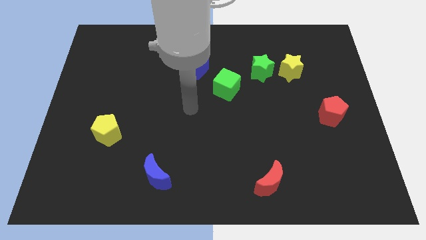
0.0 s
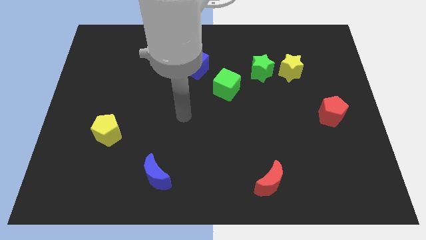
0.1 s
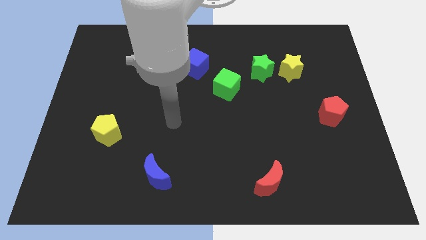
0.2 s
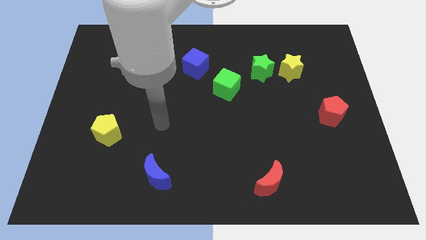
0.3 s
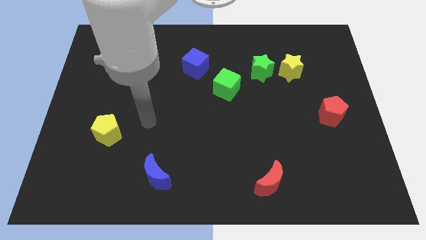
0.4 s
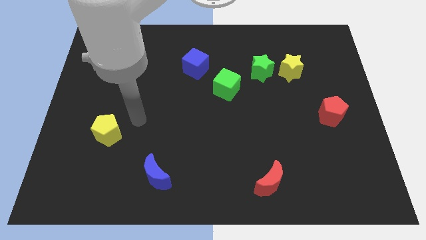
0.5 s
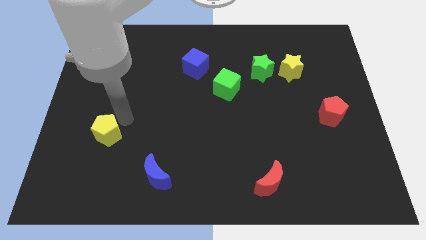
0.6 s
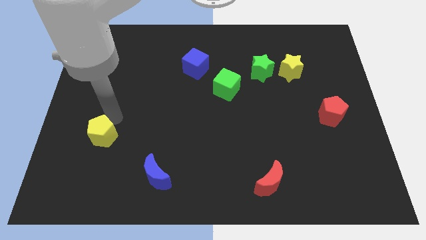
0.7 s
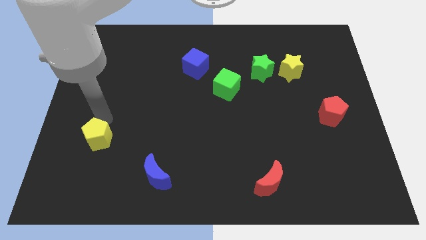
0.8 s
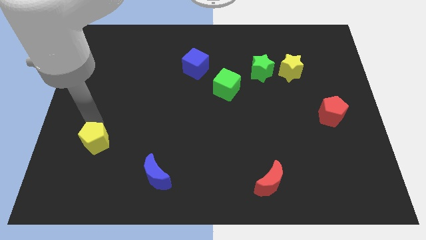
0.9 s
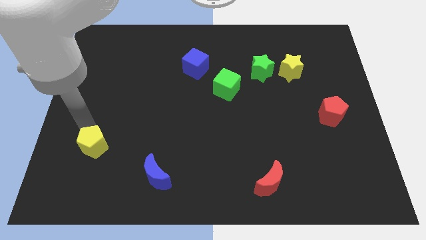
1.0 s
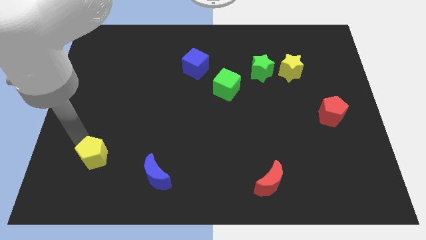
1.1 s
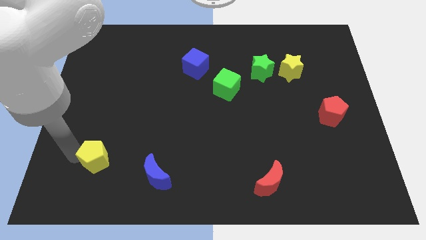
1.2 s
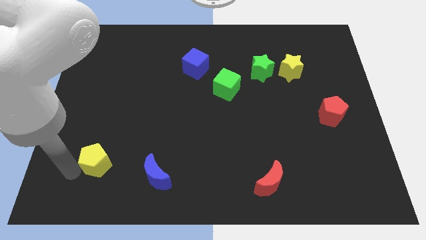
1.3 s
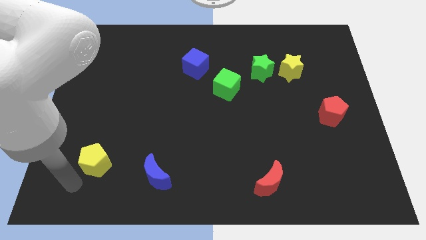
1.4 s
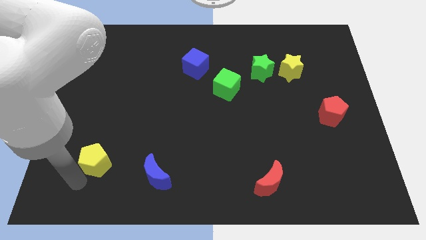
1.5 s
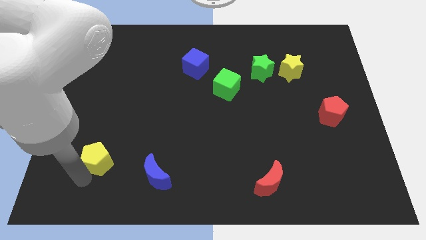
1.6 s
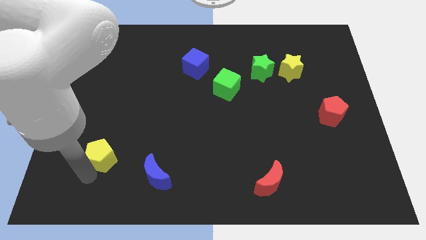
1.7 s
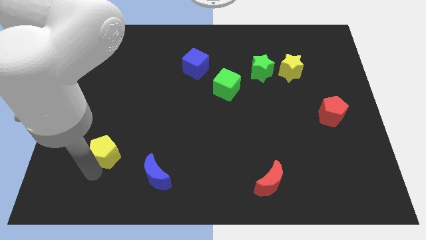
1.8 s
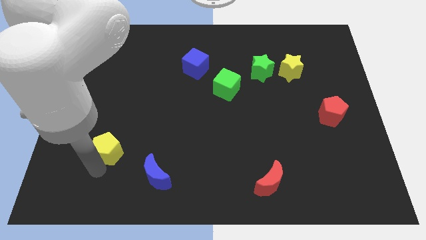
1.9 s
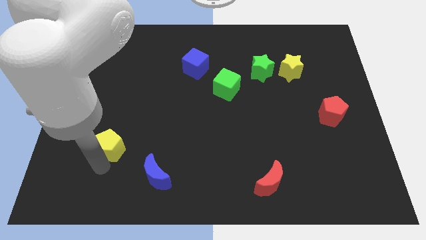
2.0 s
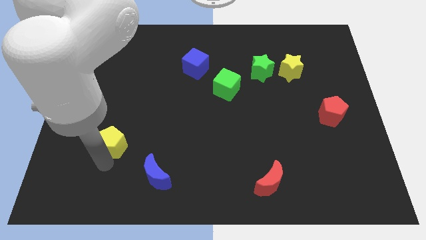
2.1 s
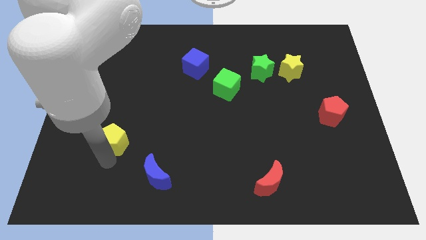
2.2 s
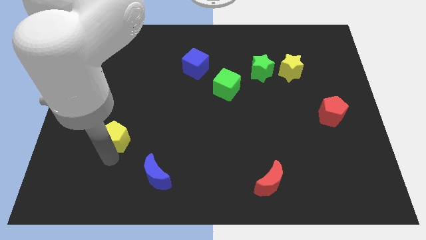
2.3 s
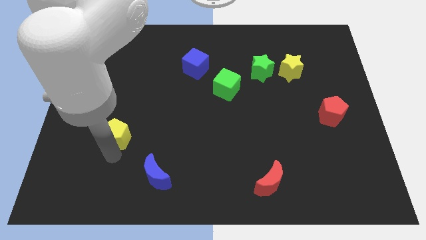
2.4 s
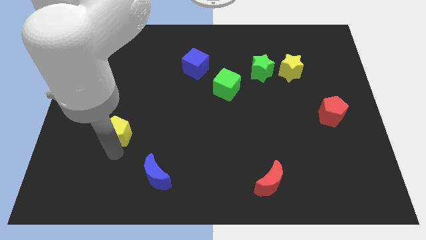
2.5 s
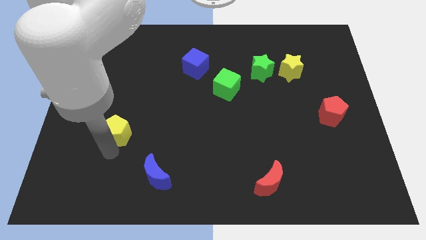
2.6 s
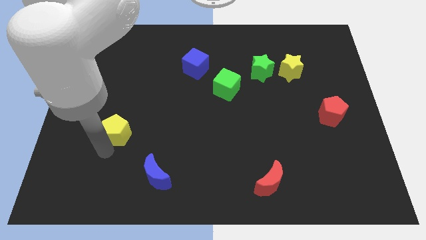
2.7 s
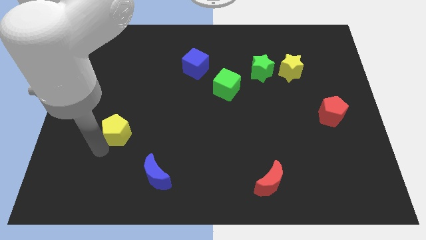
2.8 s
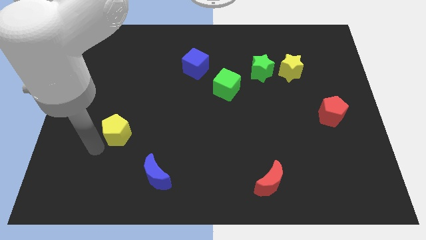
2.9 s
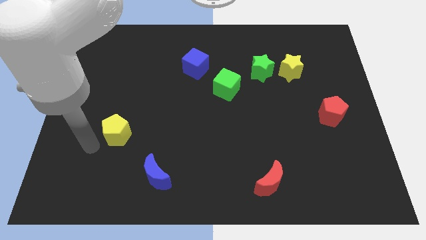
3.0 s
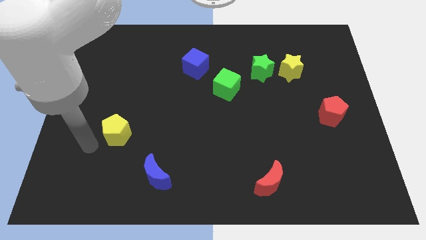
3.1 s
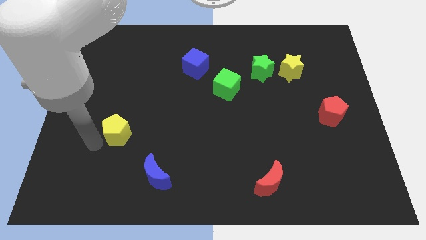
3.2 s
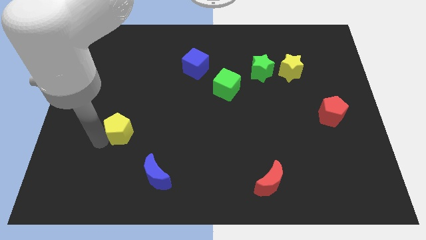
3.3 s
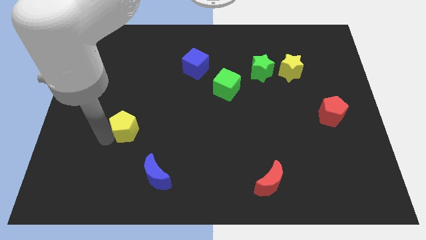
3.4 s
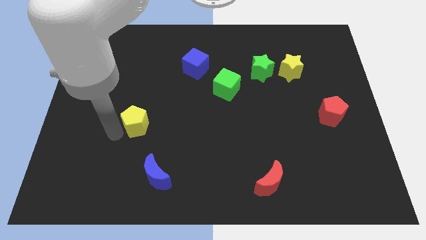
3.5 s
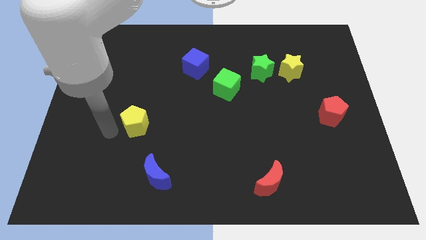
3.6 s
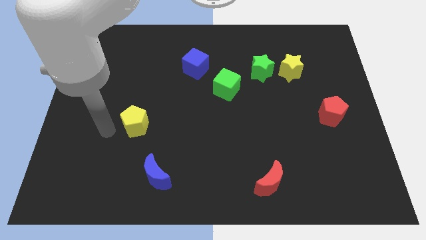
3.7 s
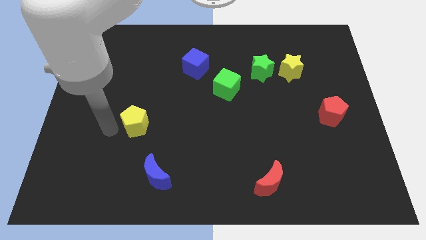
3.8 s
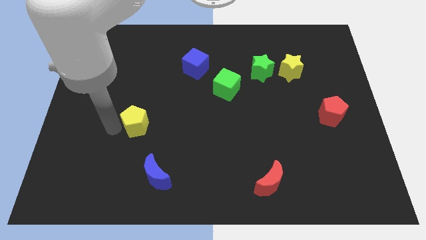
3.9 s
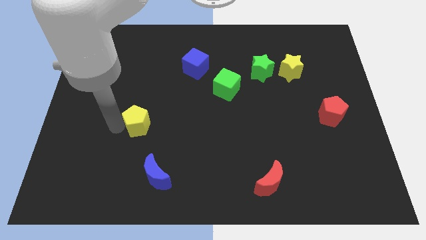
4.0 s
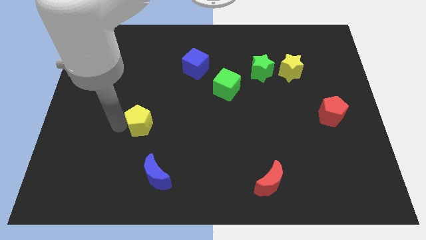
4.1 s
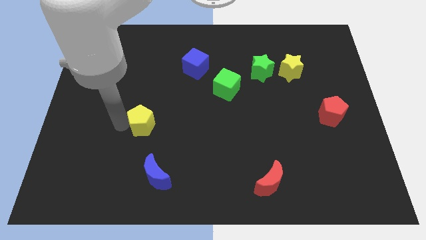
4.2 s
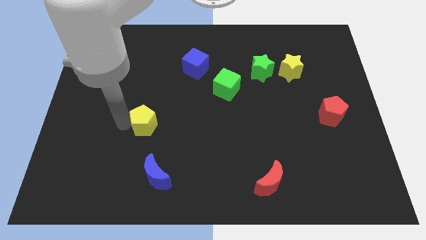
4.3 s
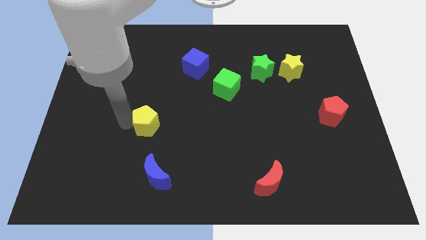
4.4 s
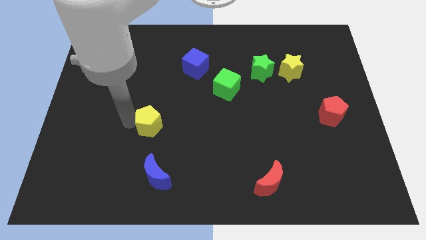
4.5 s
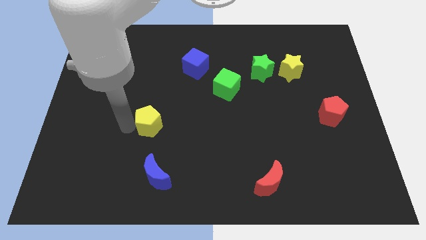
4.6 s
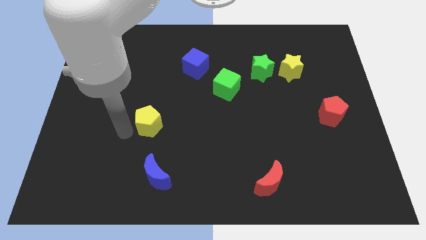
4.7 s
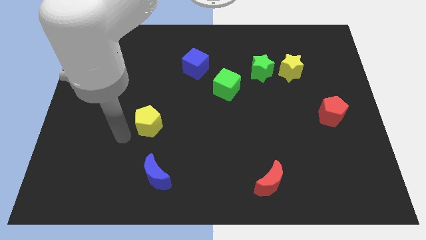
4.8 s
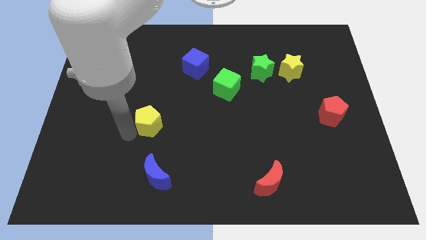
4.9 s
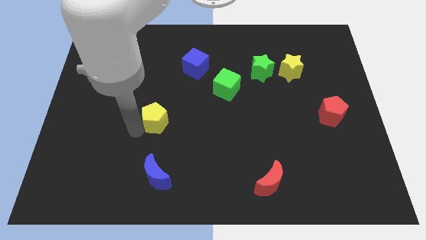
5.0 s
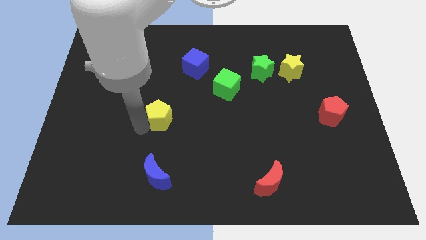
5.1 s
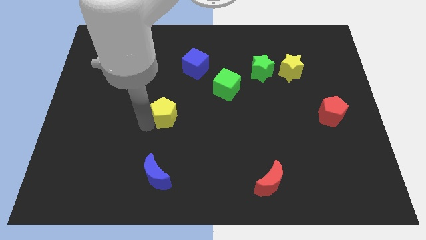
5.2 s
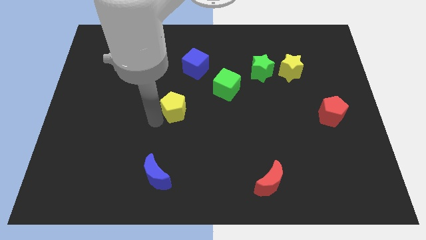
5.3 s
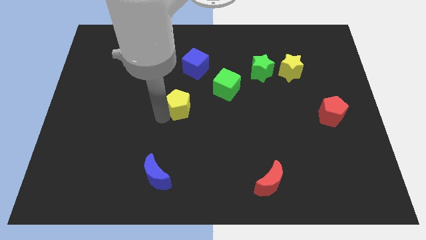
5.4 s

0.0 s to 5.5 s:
push the yellow pentagon to the bottom side of the blue cube

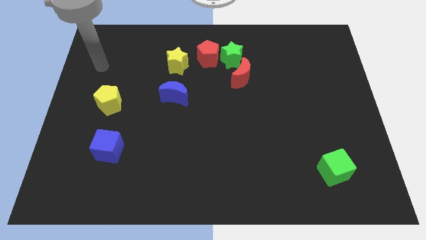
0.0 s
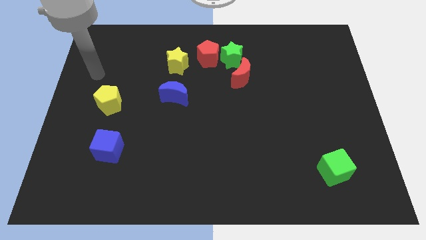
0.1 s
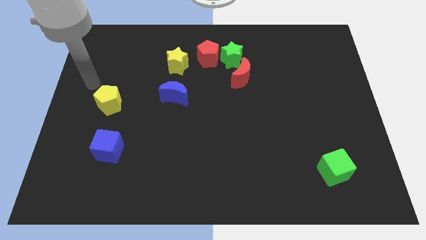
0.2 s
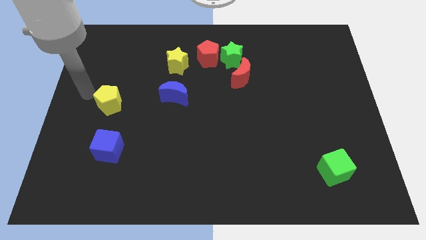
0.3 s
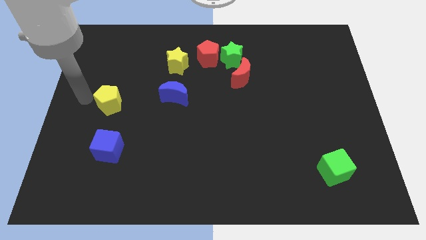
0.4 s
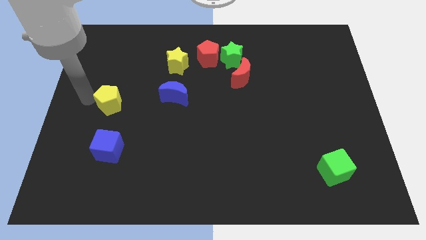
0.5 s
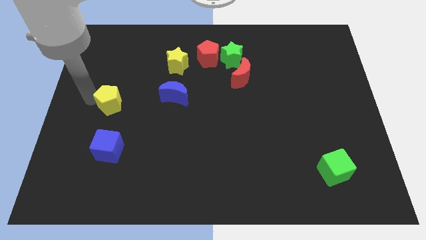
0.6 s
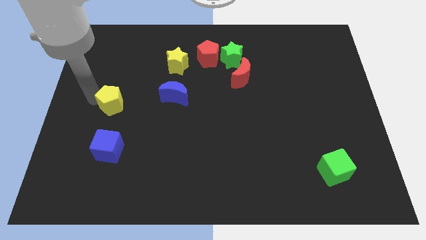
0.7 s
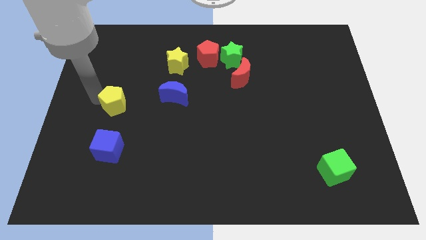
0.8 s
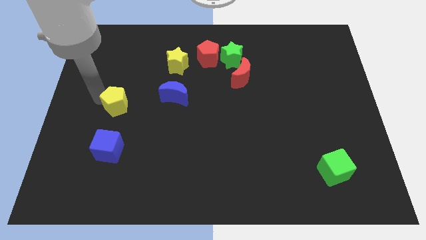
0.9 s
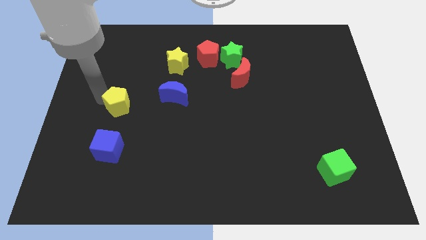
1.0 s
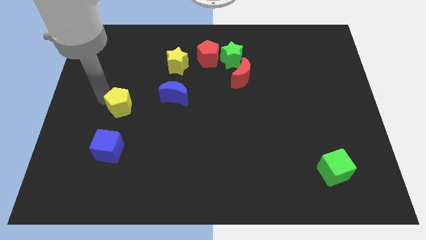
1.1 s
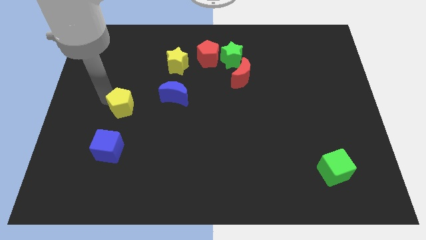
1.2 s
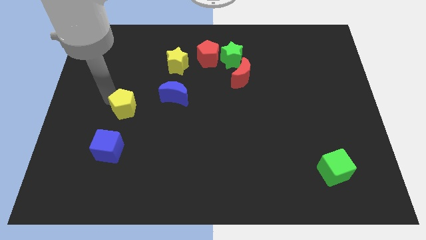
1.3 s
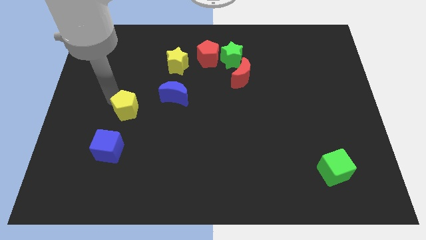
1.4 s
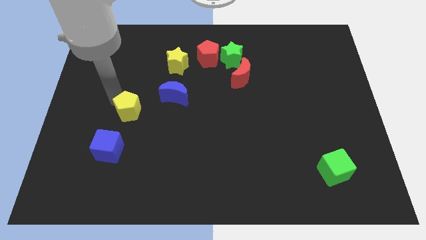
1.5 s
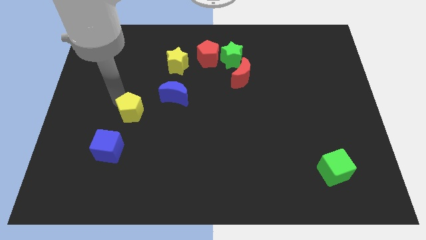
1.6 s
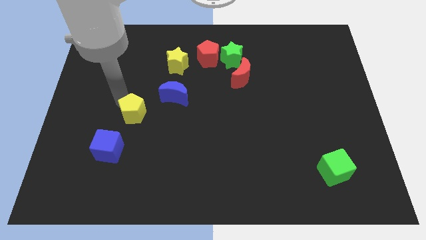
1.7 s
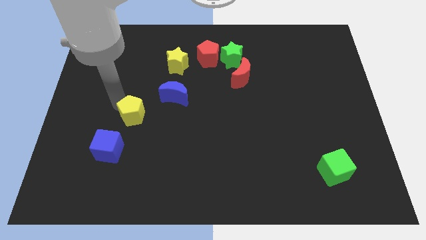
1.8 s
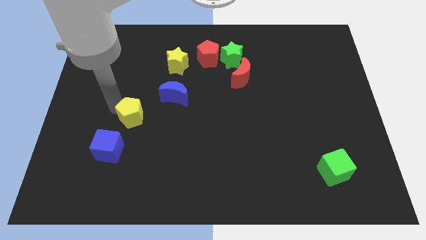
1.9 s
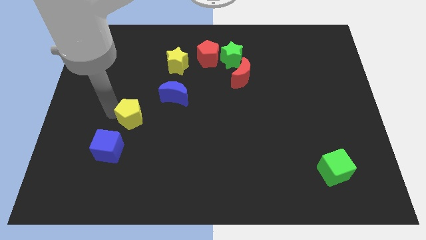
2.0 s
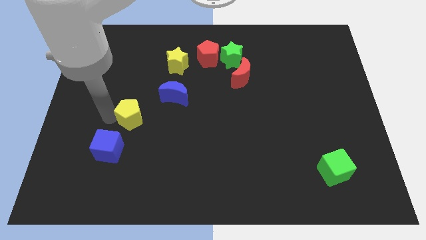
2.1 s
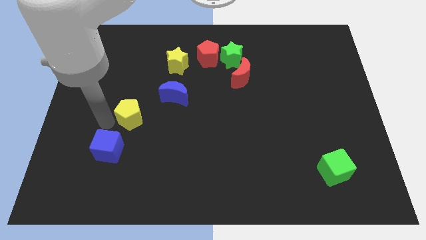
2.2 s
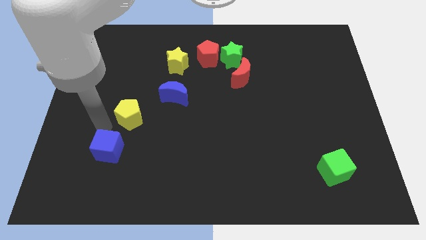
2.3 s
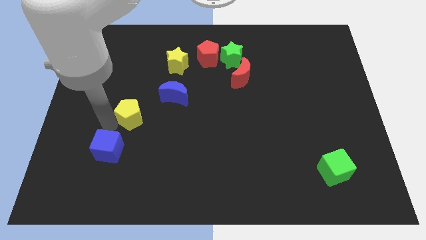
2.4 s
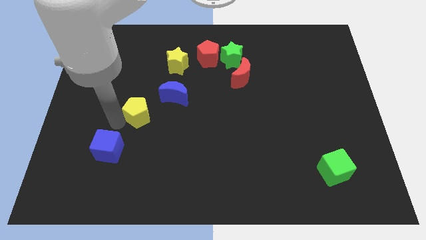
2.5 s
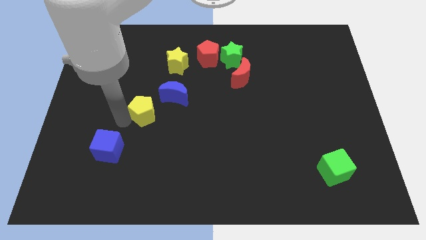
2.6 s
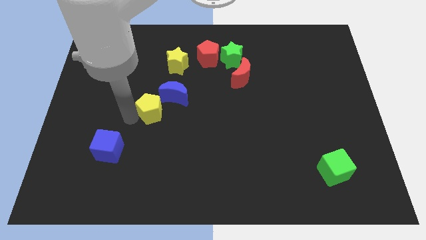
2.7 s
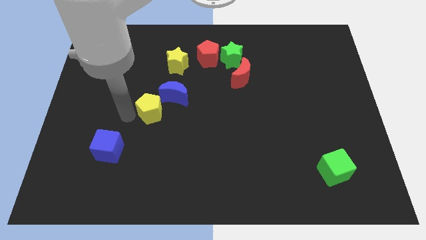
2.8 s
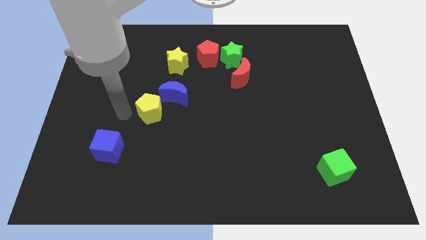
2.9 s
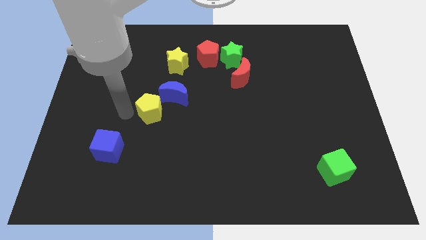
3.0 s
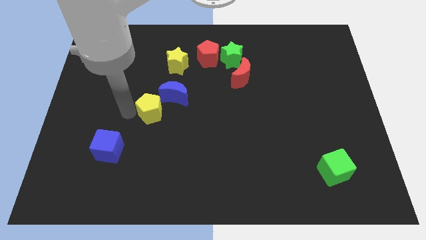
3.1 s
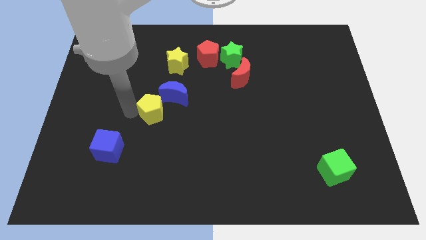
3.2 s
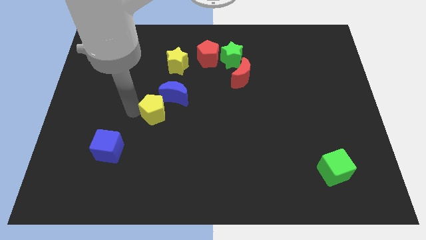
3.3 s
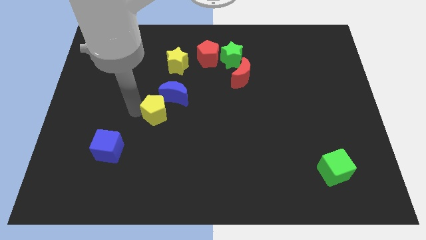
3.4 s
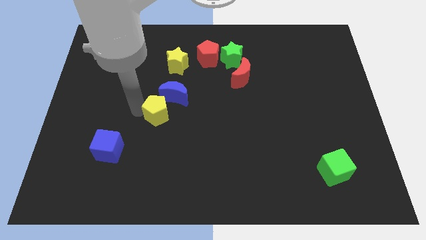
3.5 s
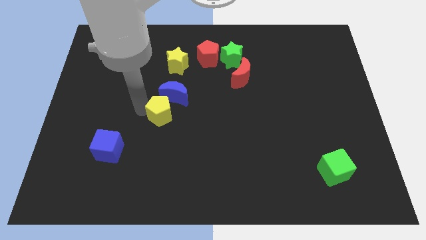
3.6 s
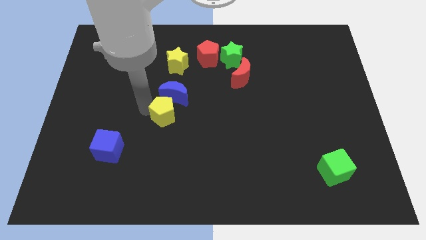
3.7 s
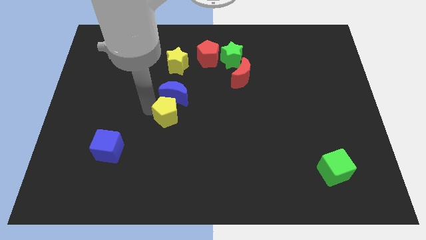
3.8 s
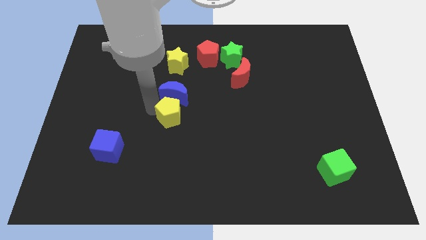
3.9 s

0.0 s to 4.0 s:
put the yellow pentagon diagonally down and to the right of the blue moon
